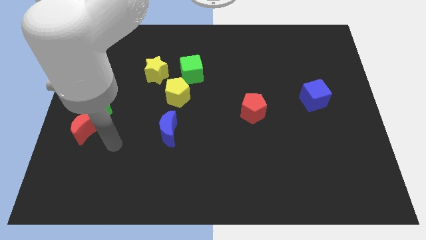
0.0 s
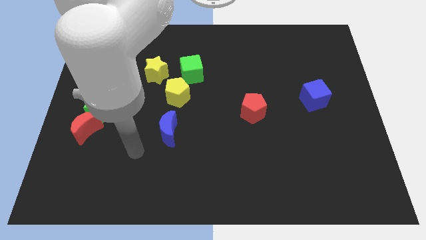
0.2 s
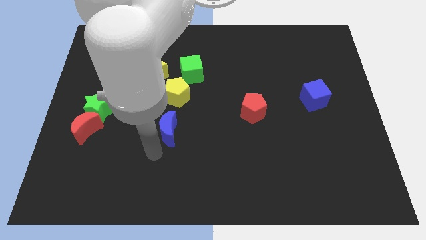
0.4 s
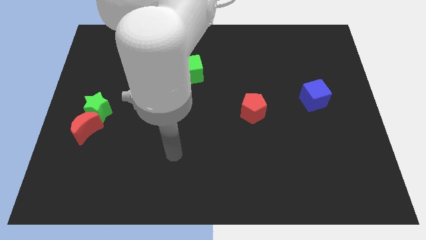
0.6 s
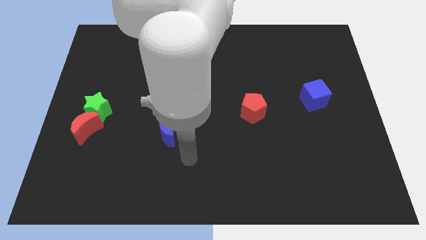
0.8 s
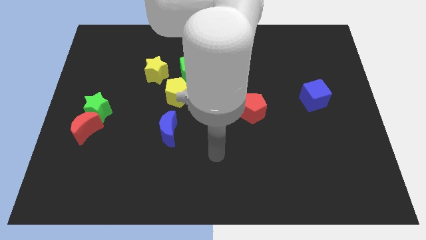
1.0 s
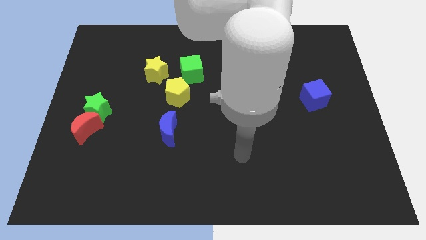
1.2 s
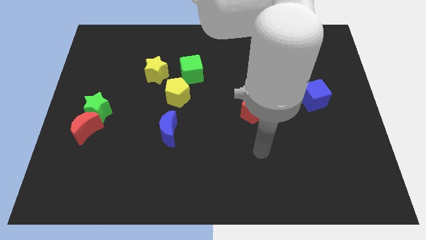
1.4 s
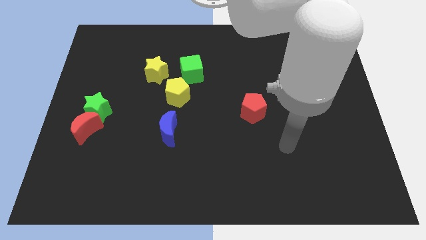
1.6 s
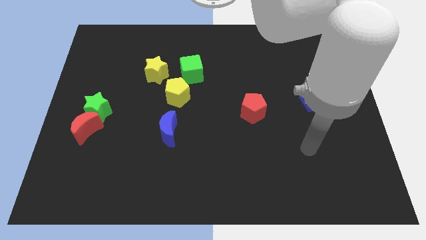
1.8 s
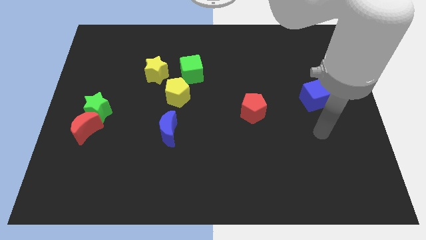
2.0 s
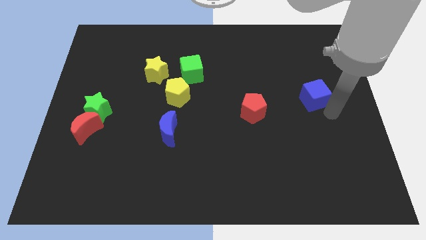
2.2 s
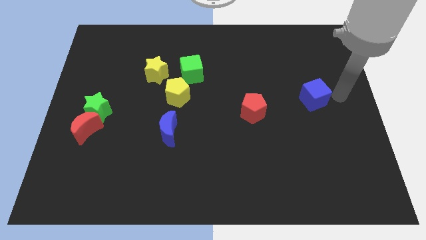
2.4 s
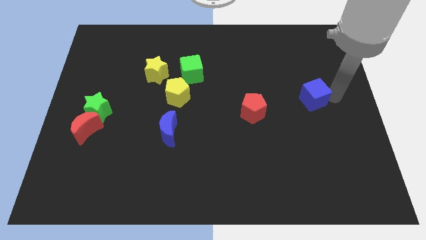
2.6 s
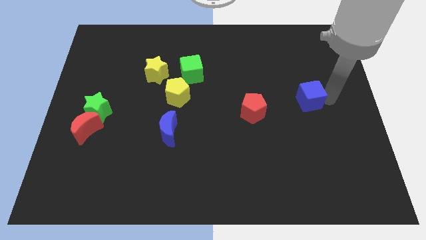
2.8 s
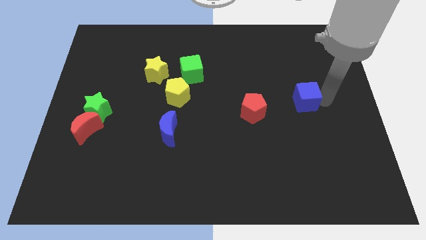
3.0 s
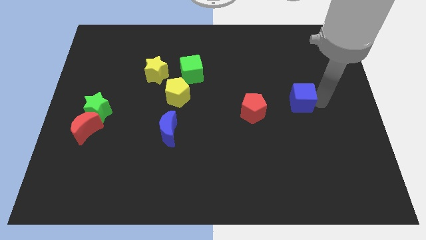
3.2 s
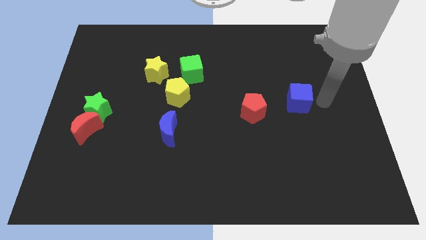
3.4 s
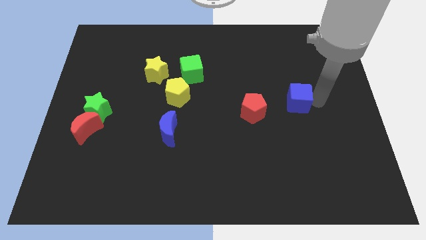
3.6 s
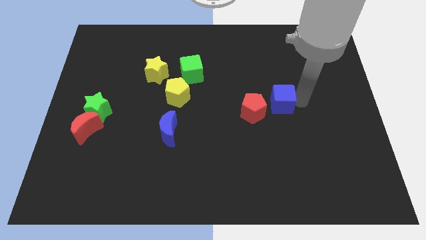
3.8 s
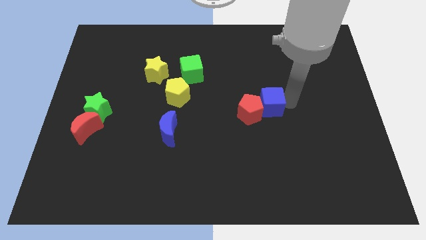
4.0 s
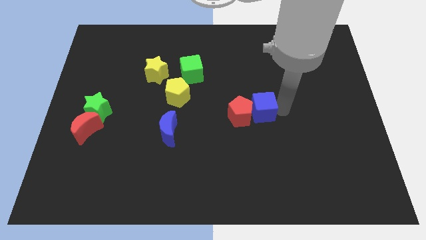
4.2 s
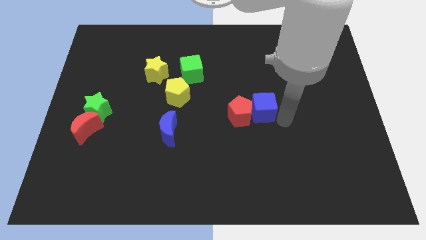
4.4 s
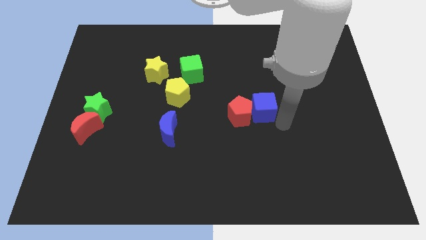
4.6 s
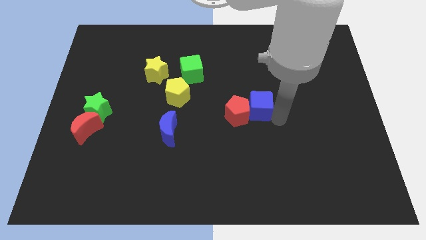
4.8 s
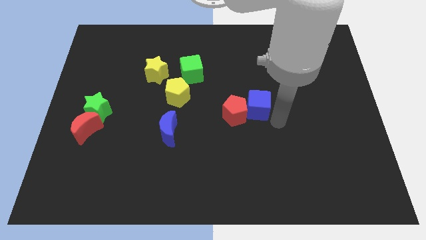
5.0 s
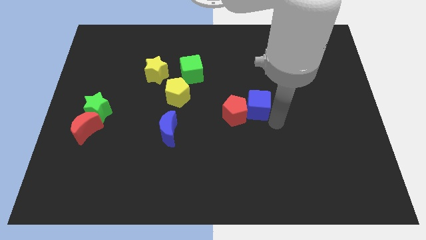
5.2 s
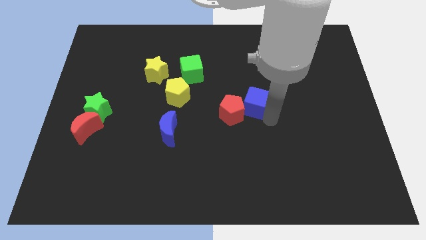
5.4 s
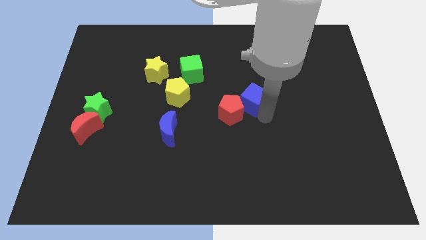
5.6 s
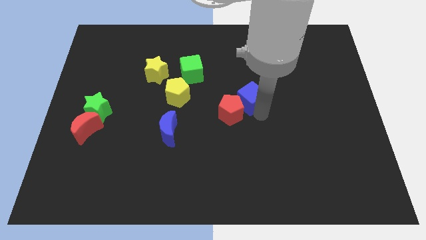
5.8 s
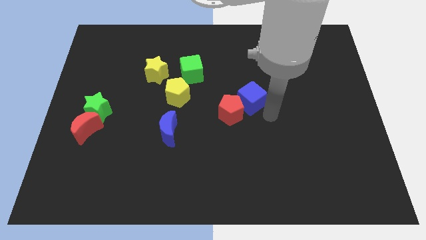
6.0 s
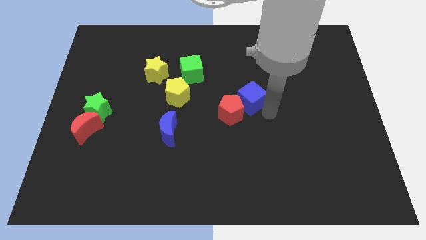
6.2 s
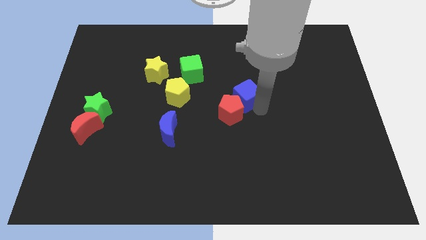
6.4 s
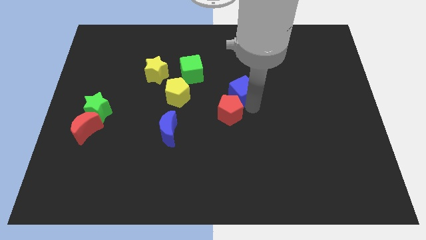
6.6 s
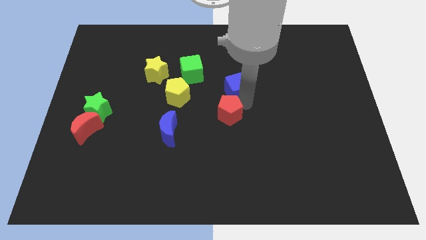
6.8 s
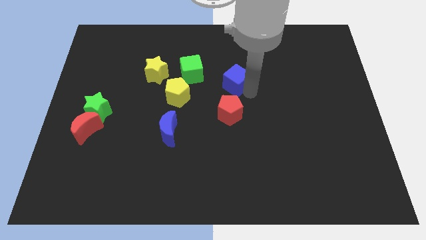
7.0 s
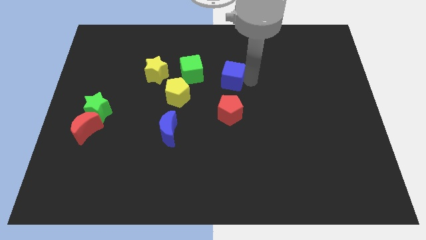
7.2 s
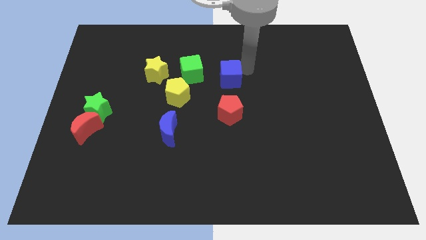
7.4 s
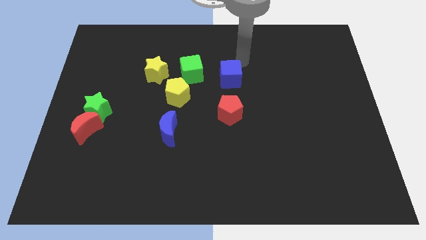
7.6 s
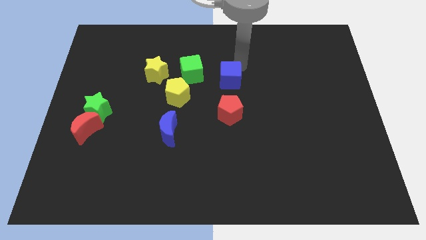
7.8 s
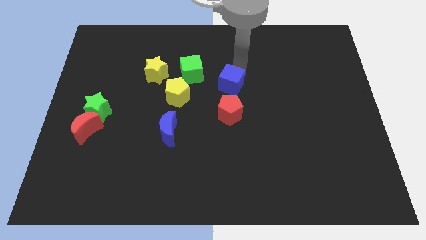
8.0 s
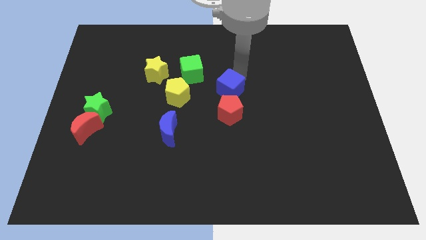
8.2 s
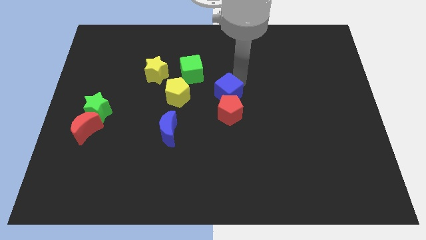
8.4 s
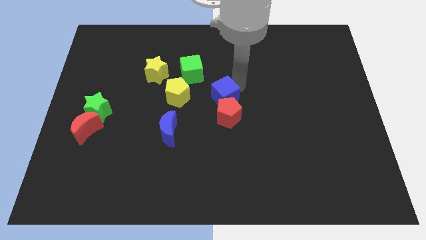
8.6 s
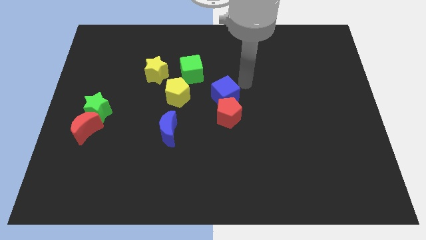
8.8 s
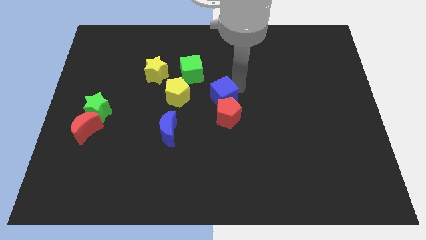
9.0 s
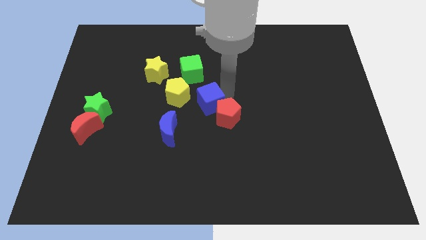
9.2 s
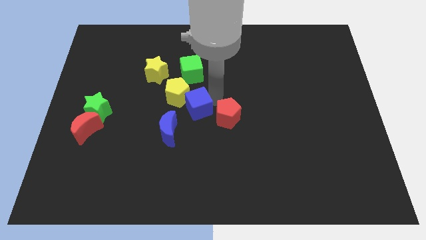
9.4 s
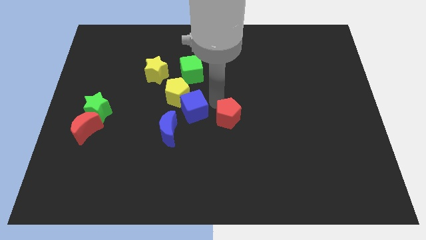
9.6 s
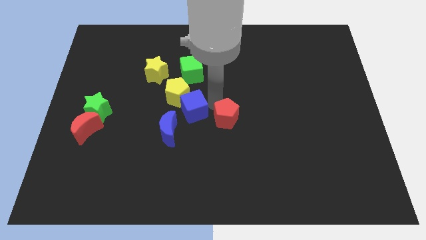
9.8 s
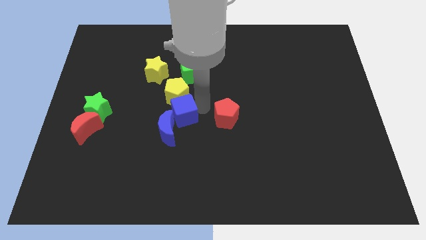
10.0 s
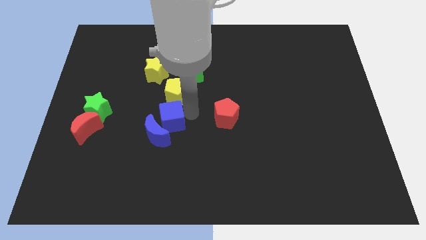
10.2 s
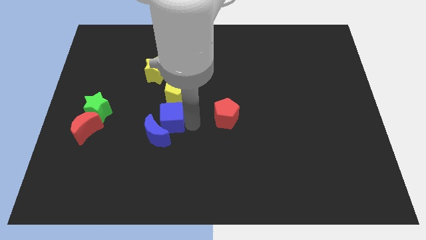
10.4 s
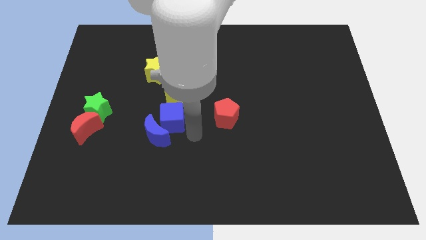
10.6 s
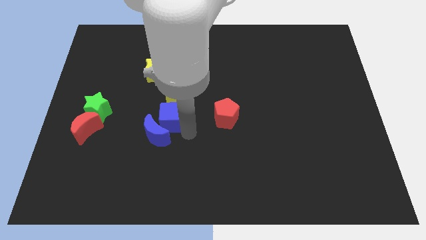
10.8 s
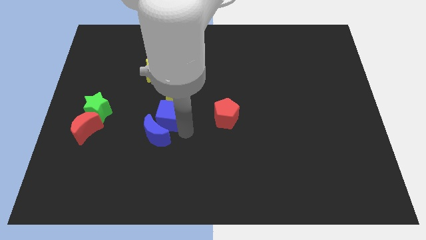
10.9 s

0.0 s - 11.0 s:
push the blue cube below the yellow star

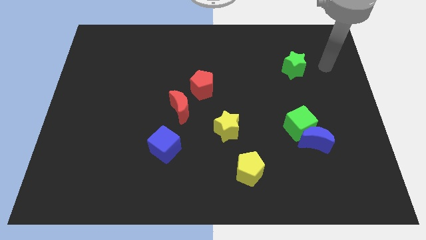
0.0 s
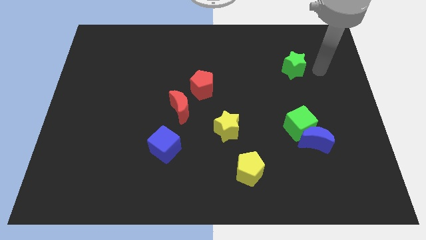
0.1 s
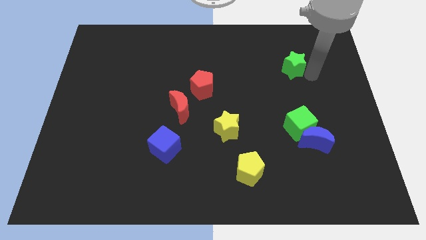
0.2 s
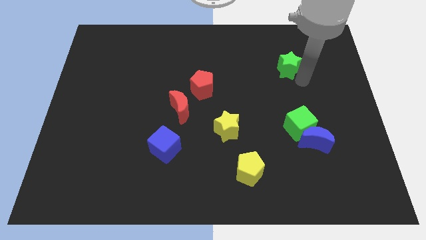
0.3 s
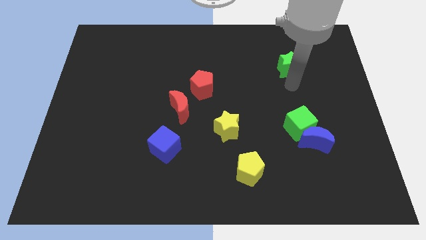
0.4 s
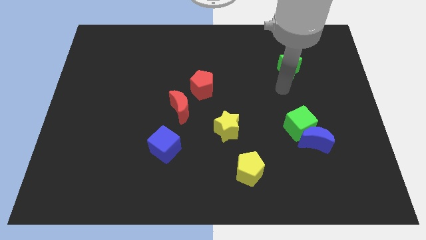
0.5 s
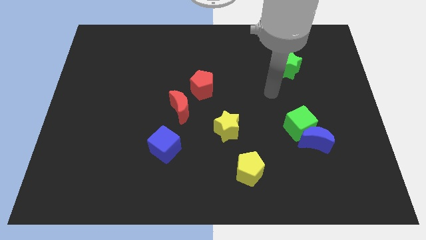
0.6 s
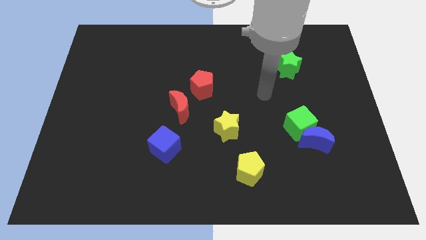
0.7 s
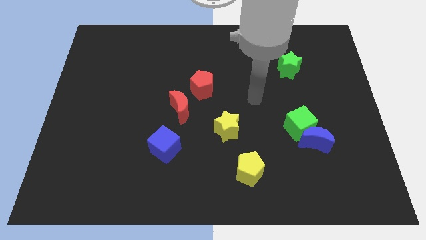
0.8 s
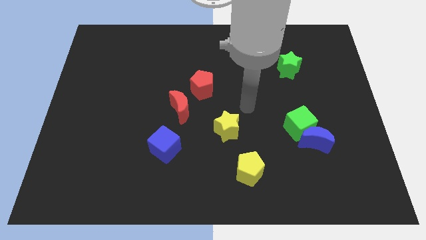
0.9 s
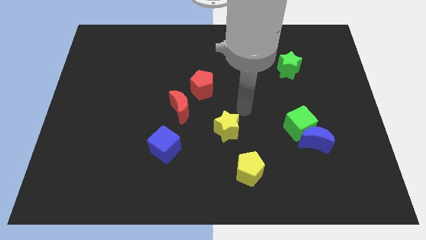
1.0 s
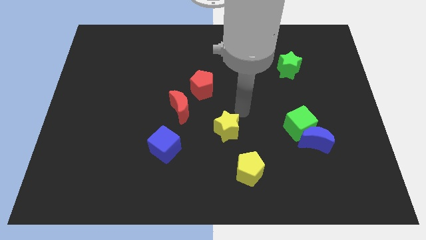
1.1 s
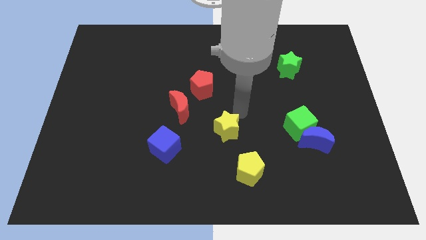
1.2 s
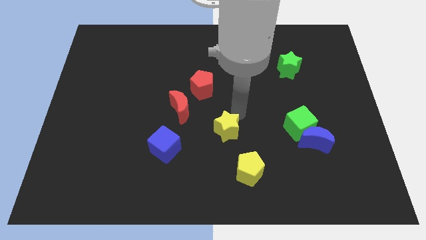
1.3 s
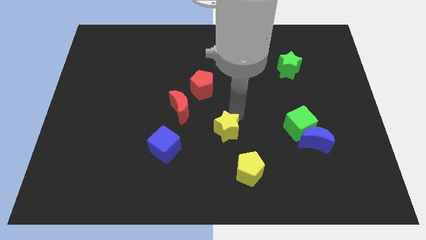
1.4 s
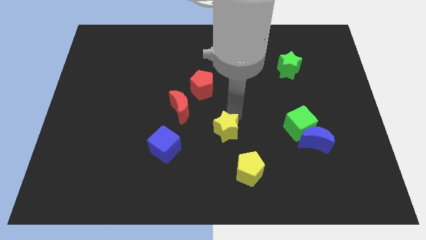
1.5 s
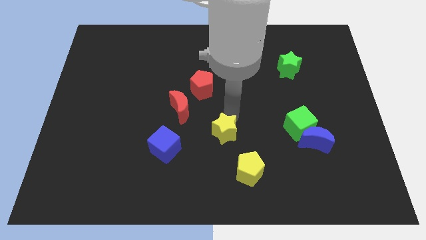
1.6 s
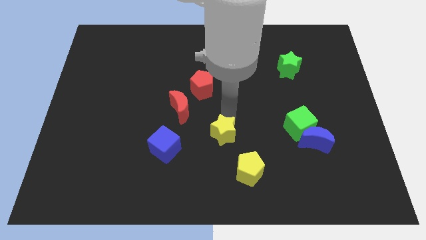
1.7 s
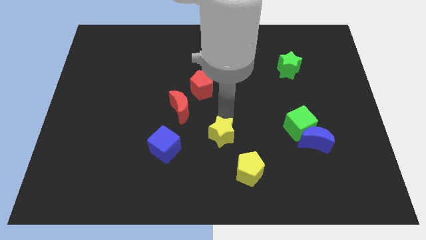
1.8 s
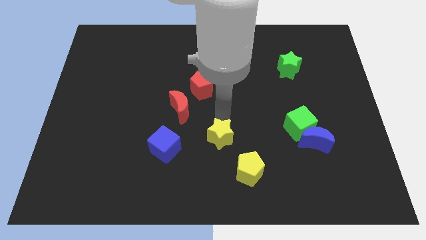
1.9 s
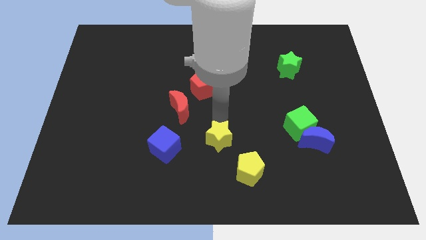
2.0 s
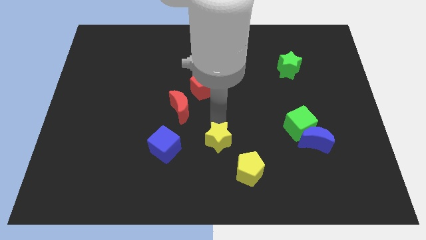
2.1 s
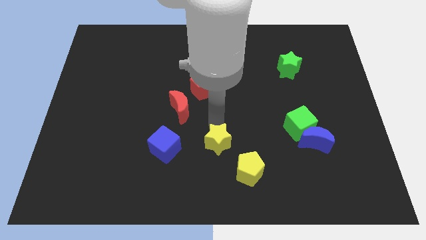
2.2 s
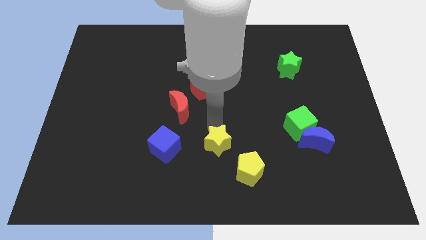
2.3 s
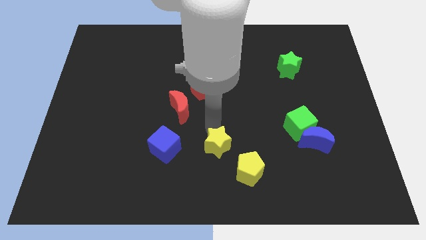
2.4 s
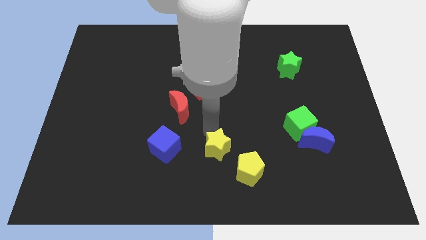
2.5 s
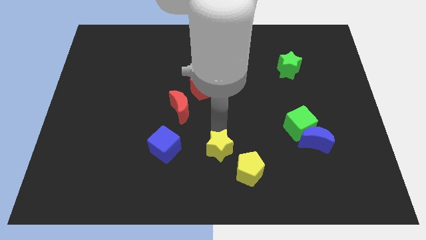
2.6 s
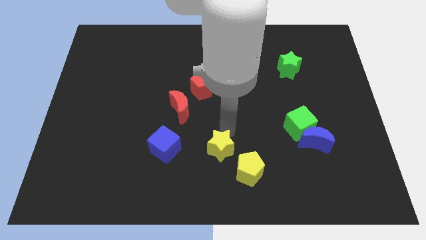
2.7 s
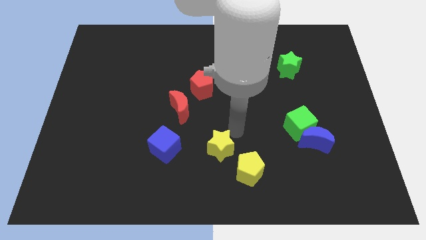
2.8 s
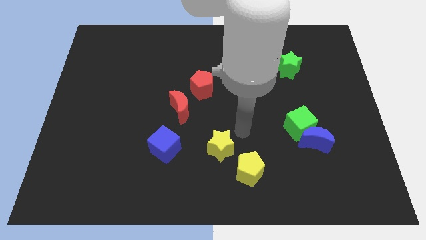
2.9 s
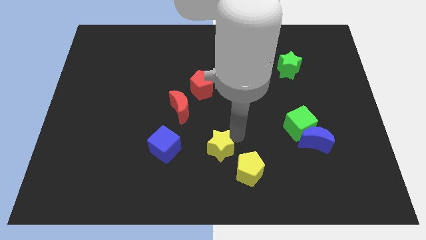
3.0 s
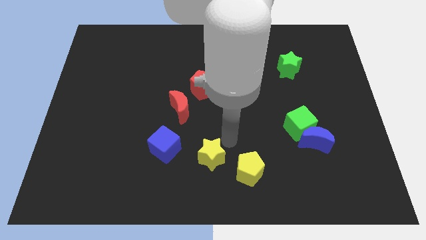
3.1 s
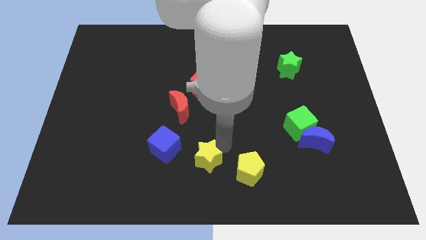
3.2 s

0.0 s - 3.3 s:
put the yellow star to the bottom right side of the blue cube
